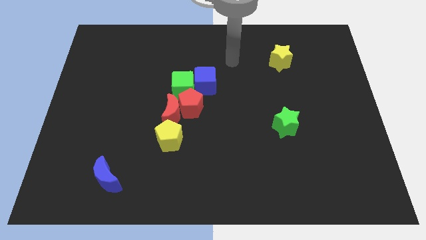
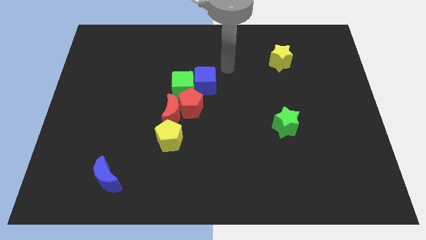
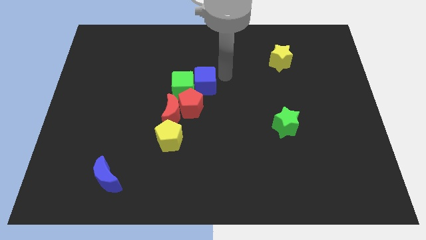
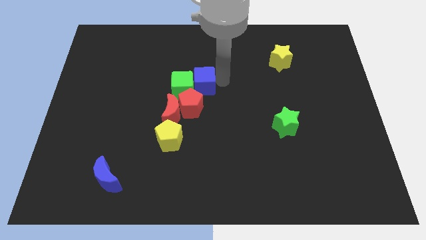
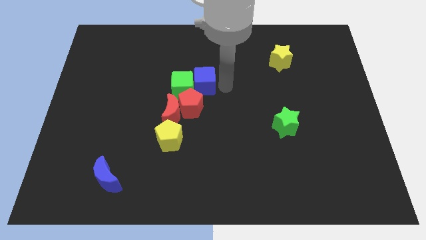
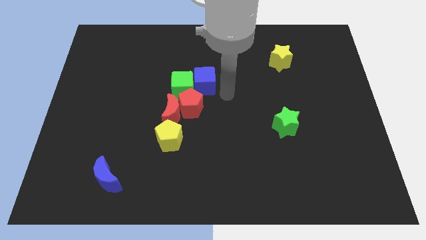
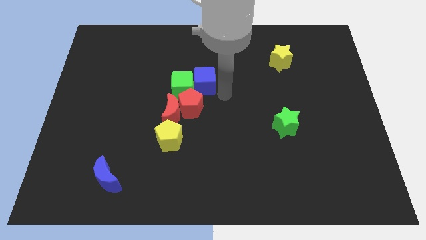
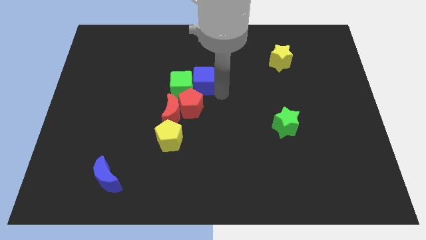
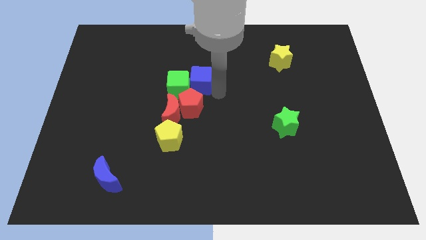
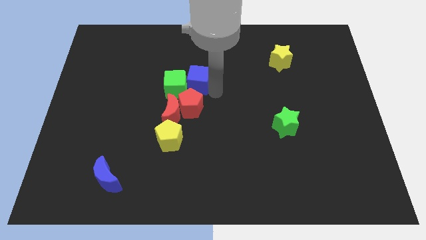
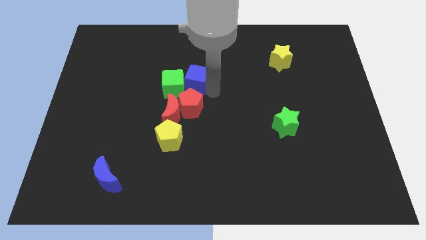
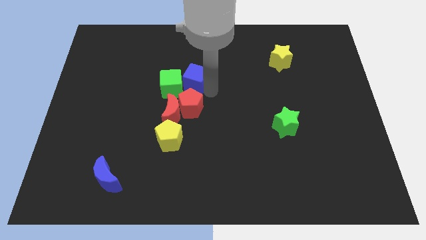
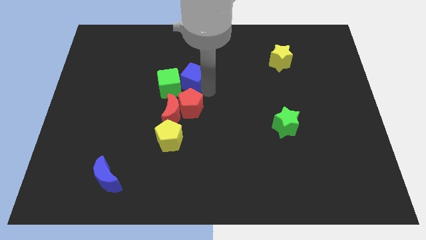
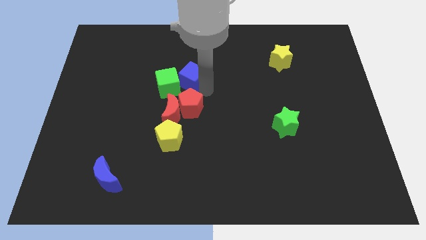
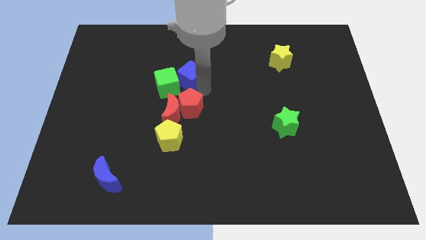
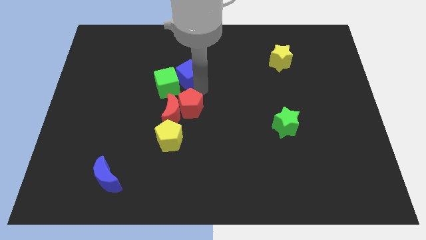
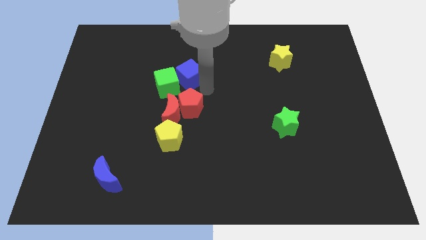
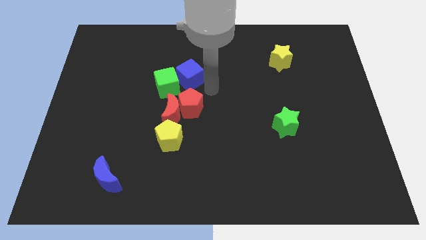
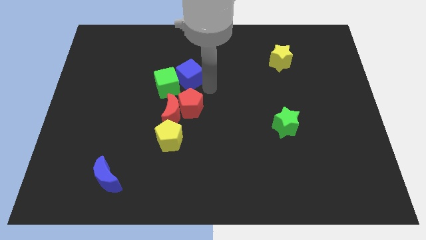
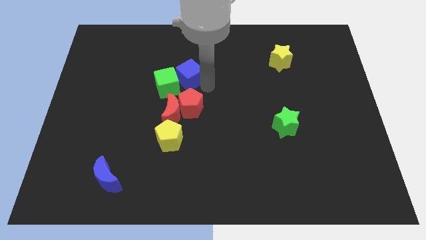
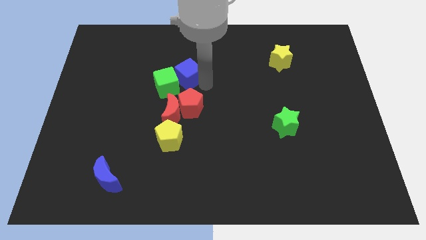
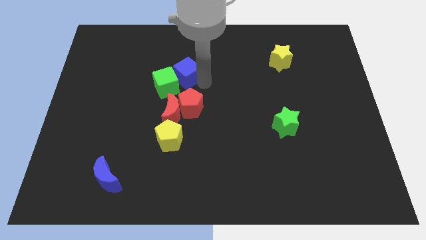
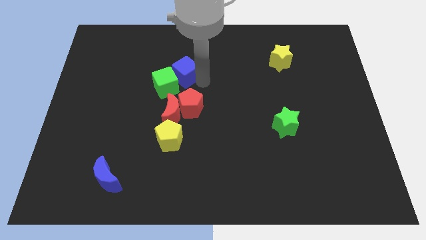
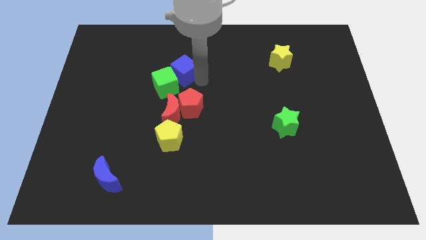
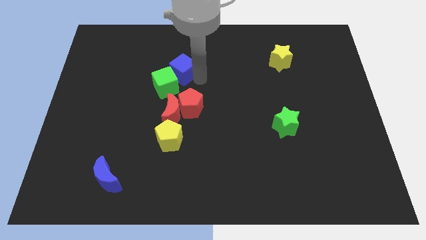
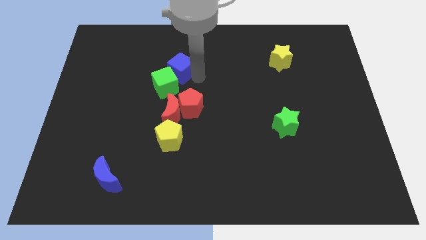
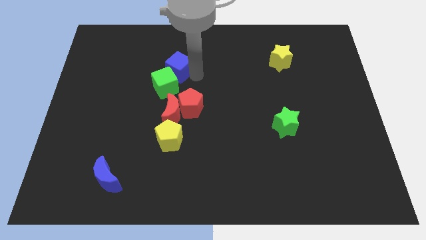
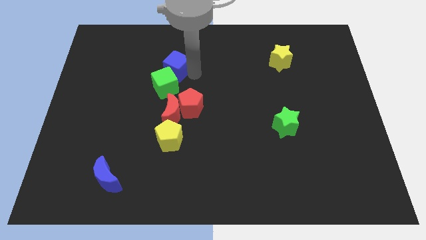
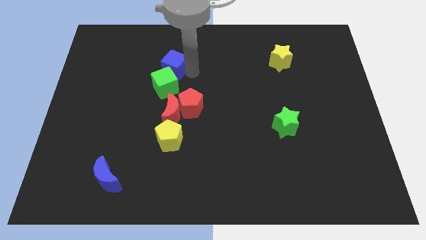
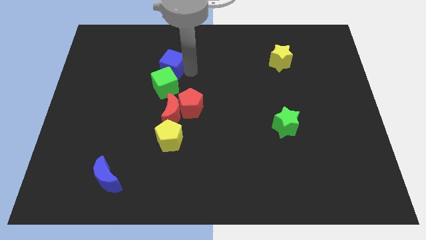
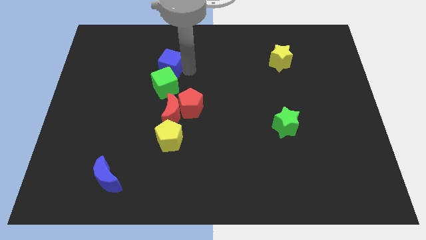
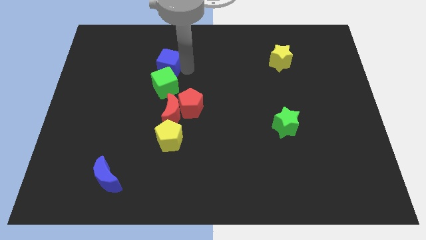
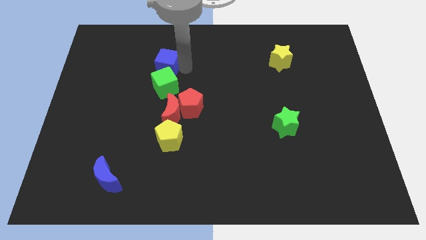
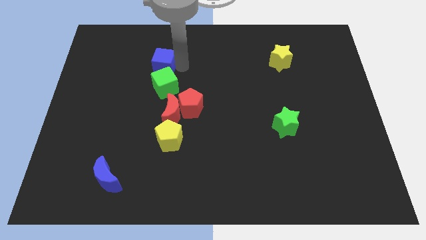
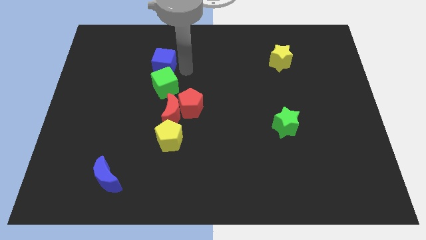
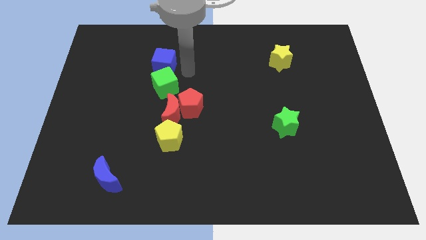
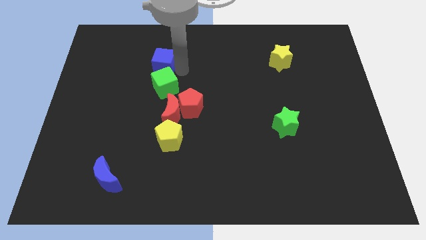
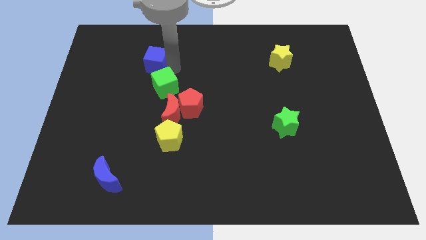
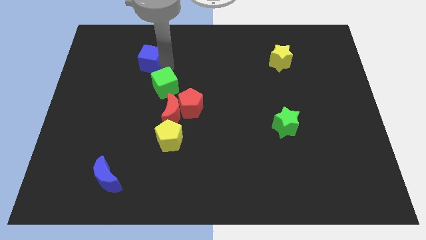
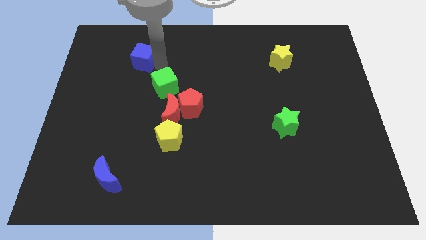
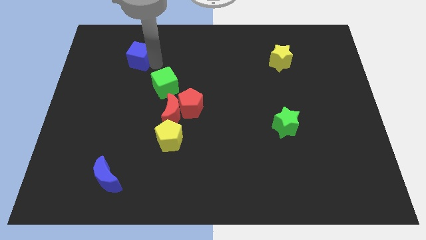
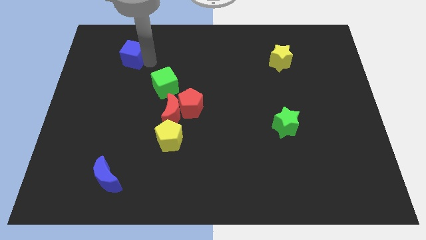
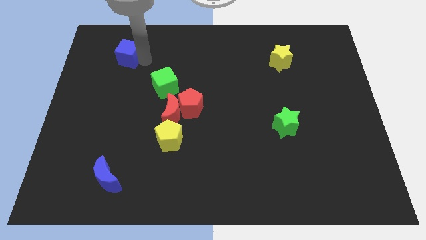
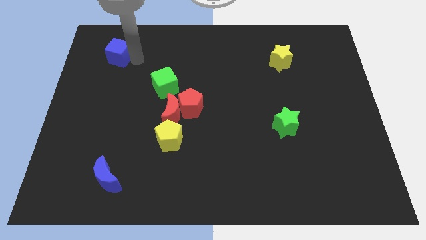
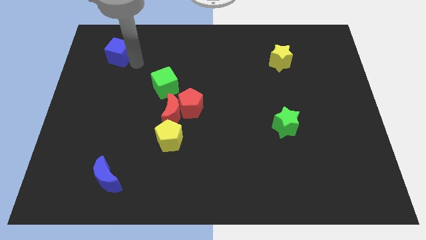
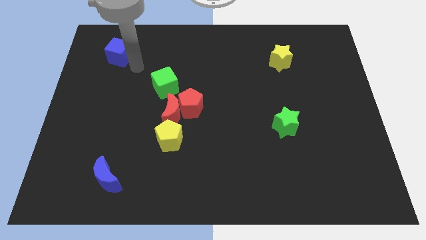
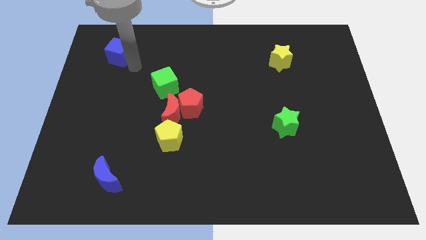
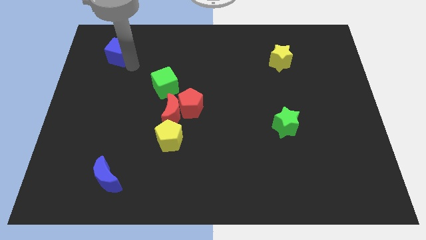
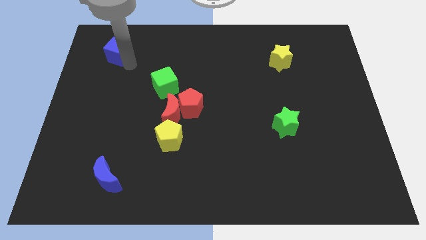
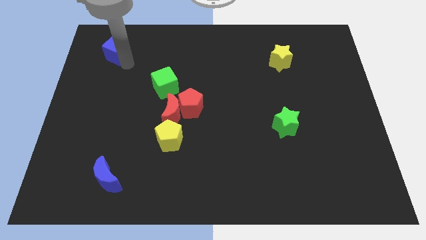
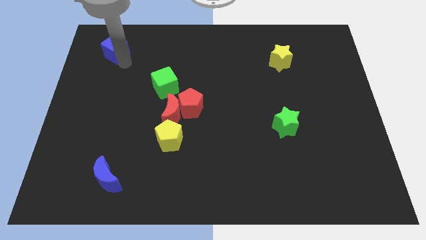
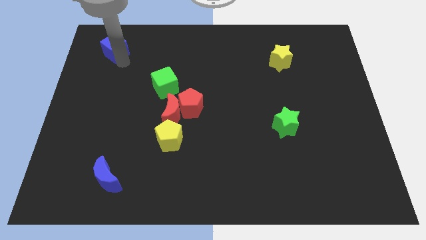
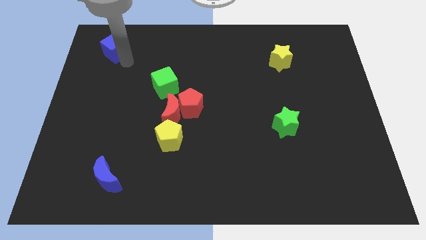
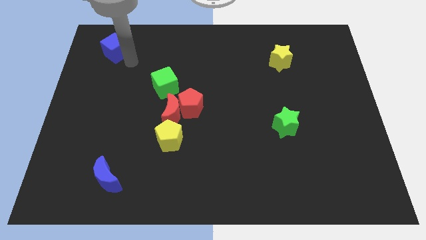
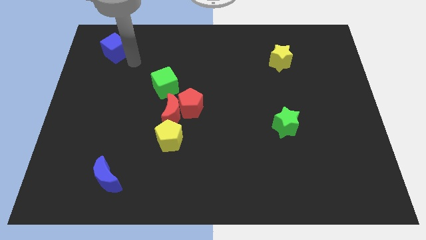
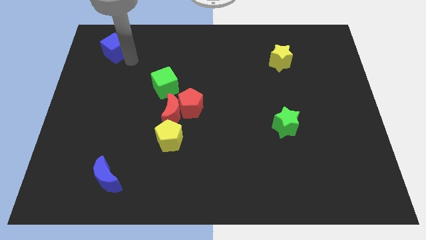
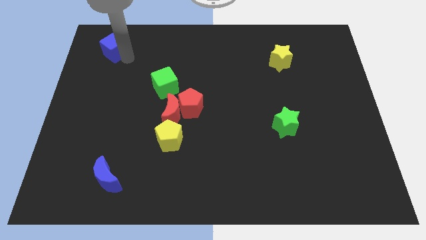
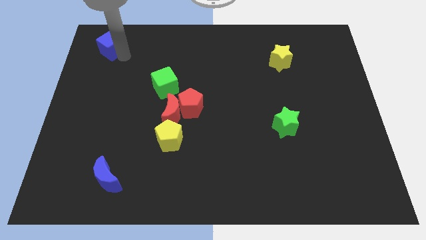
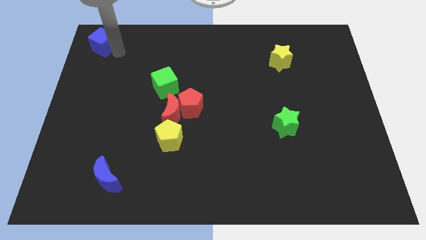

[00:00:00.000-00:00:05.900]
push the blue cube to the top left corner

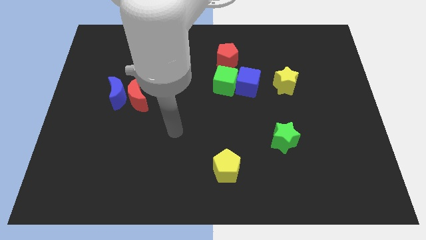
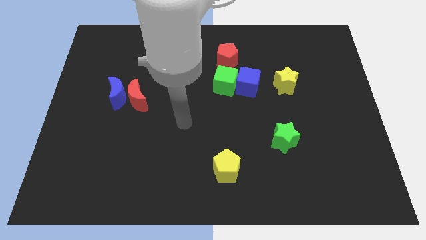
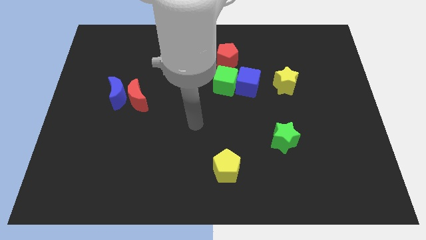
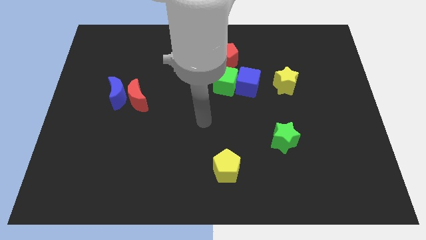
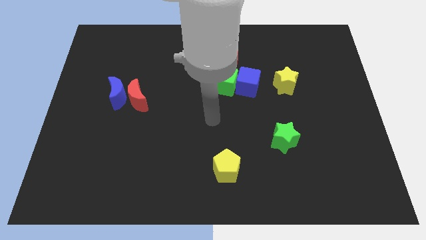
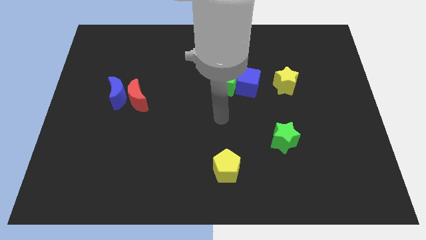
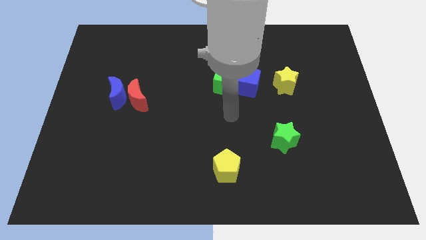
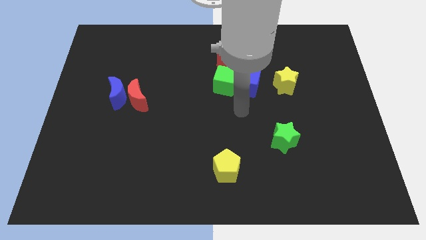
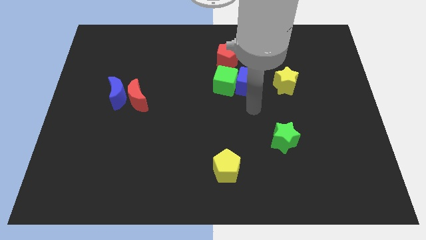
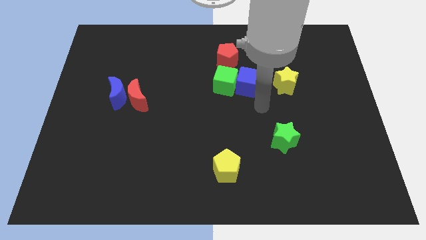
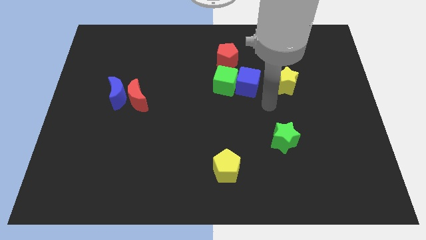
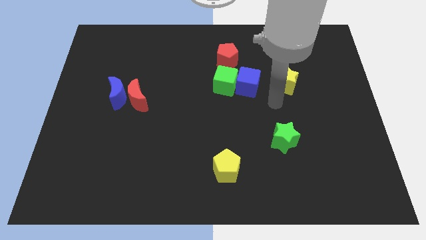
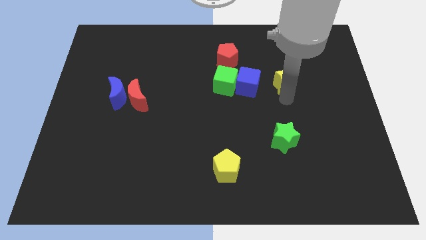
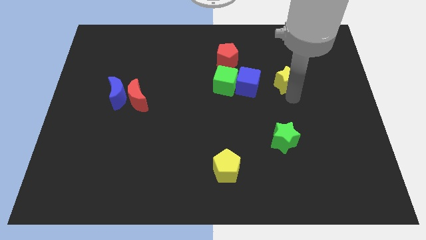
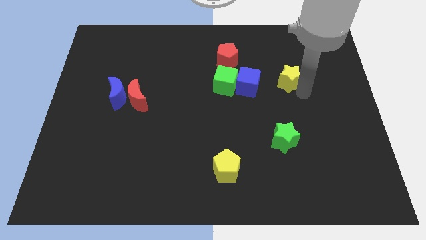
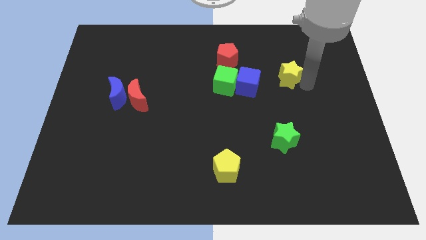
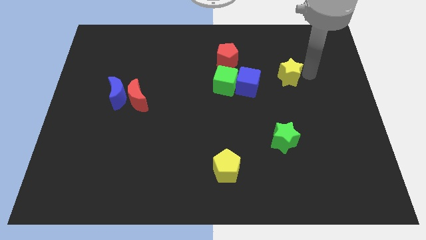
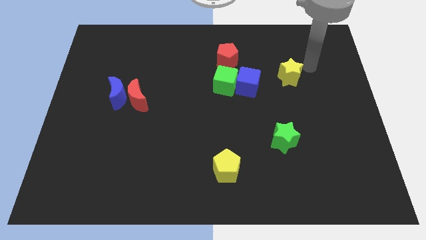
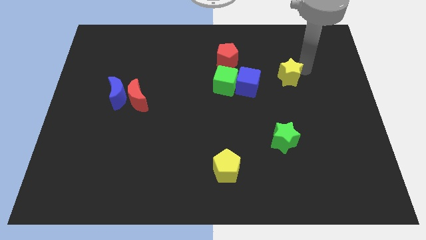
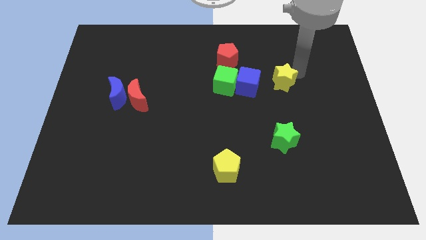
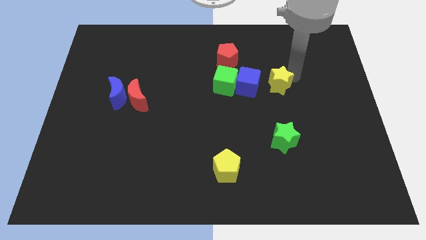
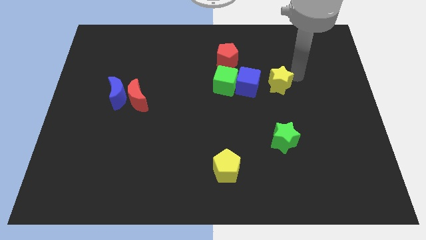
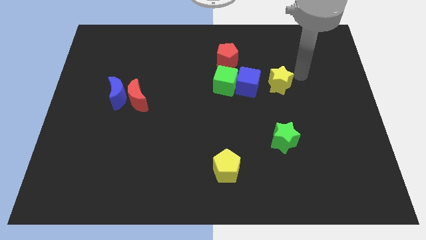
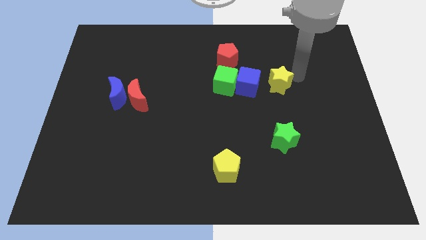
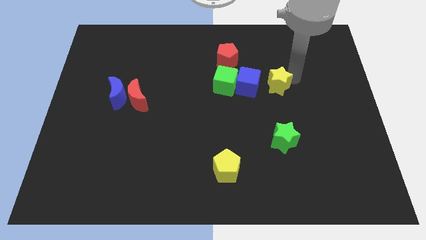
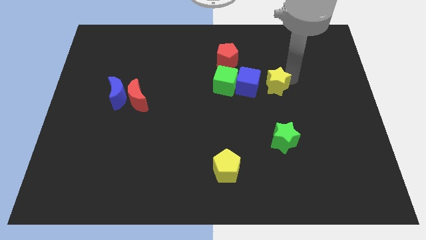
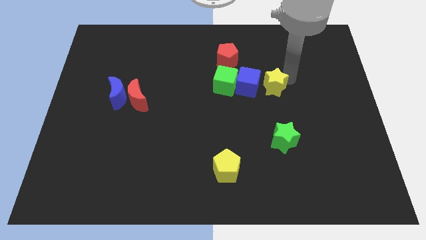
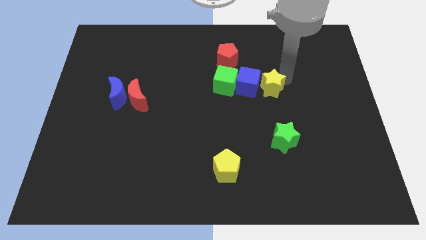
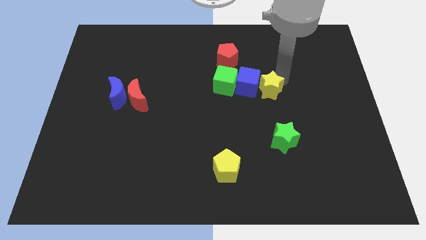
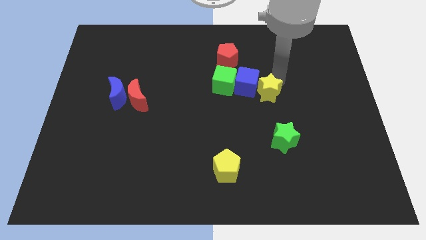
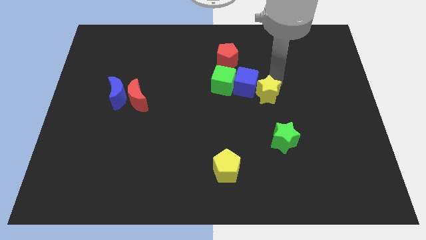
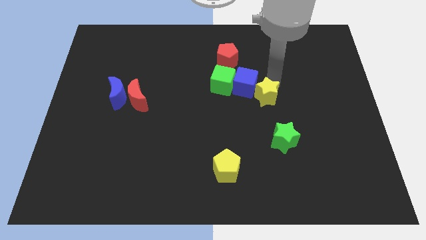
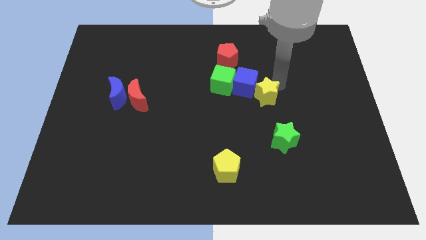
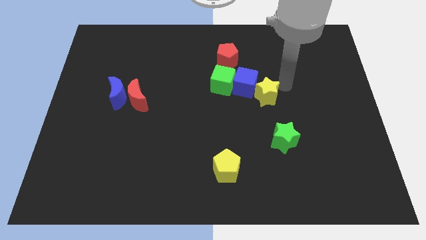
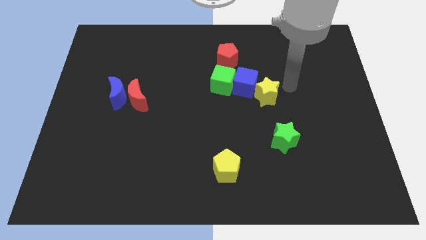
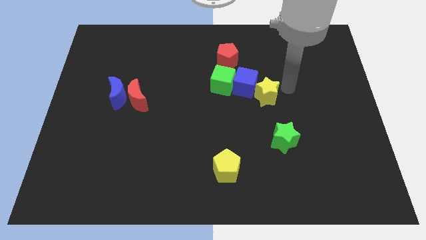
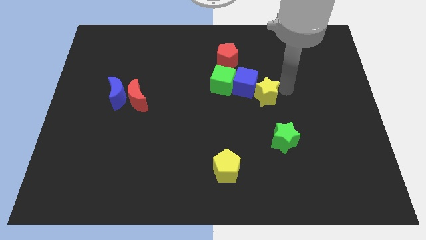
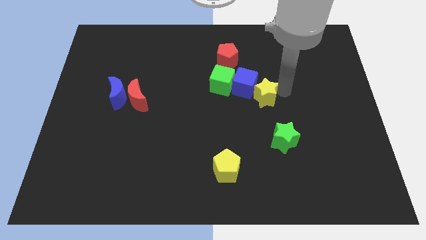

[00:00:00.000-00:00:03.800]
push the yellow star to the middle
